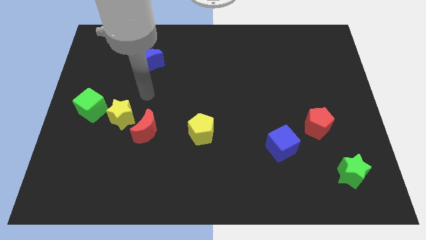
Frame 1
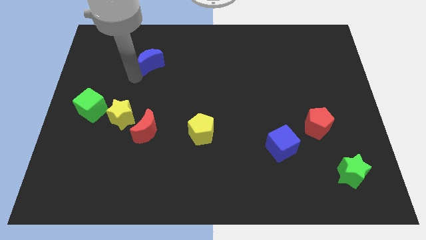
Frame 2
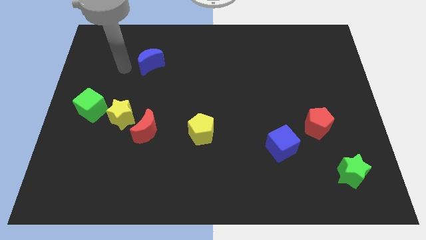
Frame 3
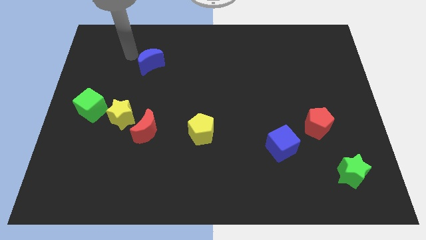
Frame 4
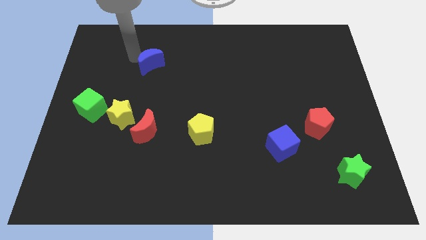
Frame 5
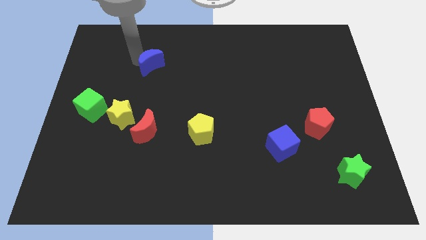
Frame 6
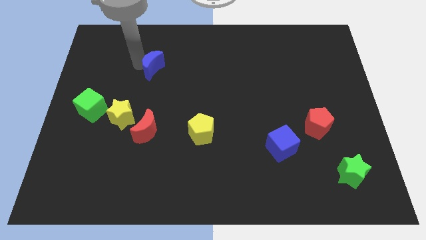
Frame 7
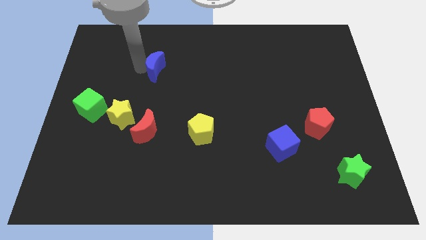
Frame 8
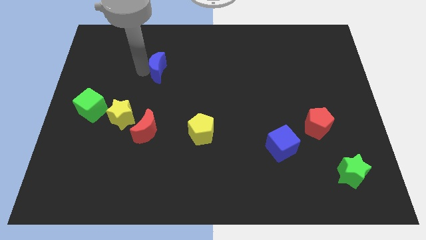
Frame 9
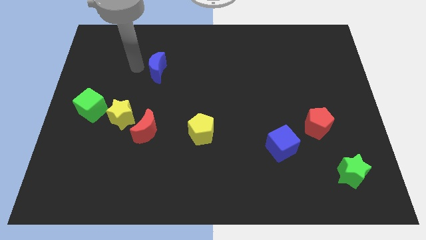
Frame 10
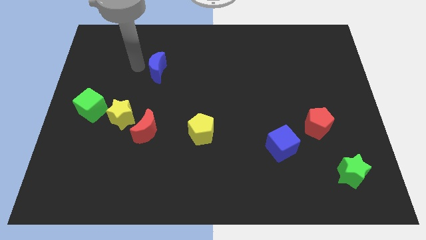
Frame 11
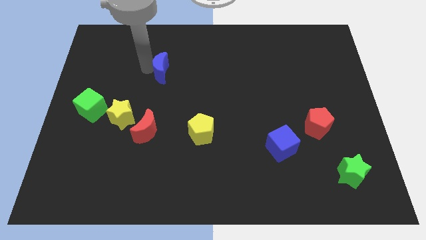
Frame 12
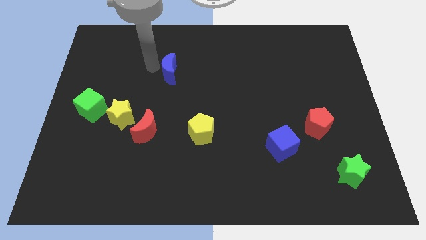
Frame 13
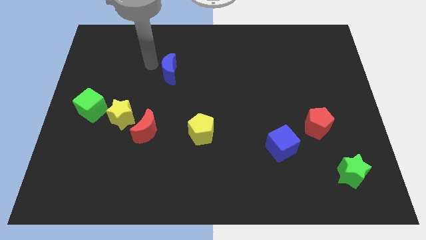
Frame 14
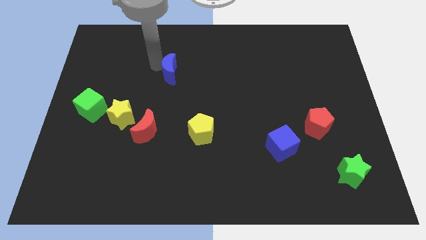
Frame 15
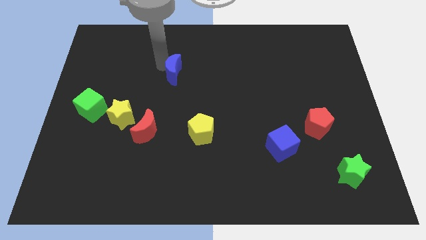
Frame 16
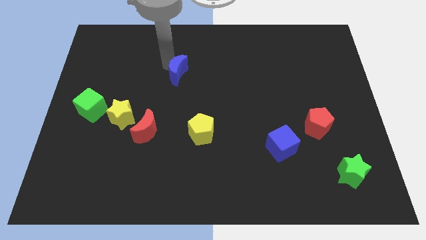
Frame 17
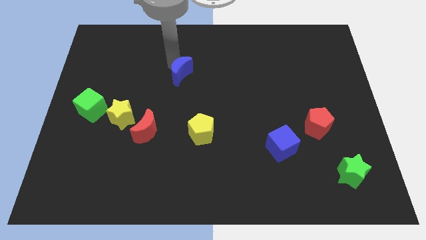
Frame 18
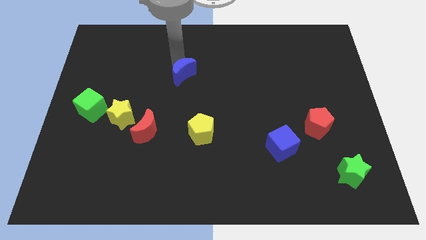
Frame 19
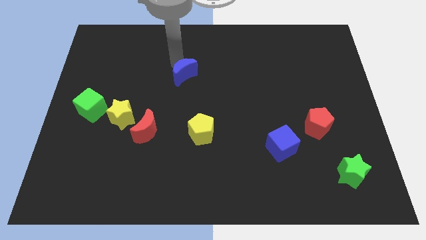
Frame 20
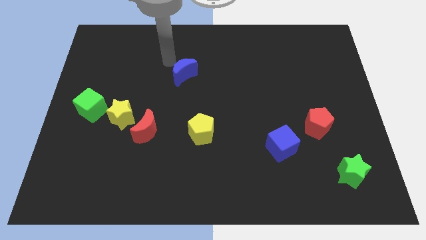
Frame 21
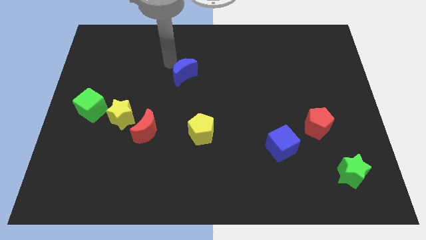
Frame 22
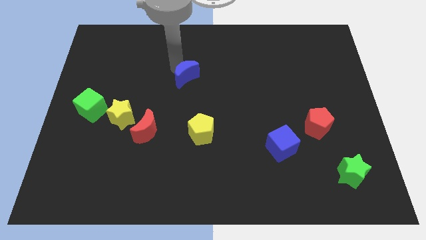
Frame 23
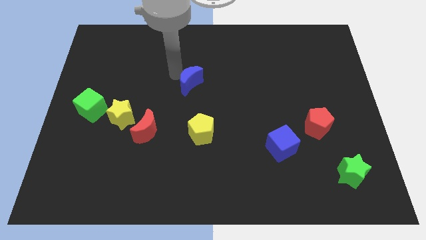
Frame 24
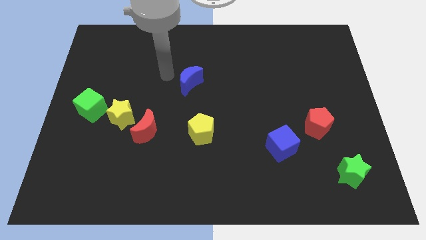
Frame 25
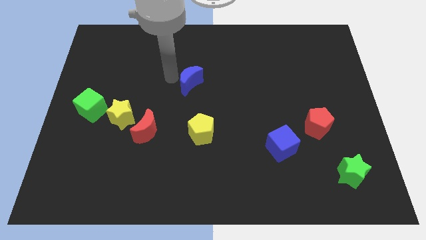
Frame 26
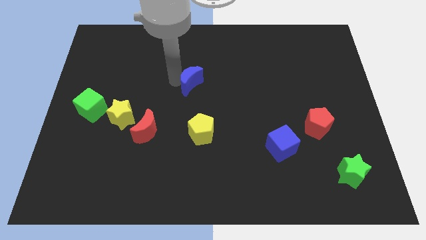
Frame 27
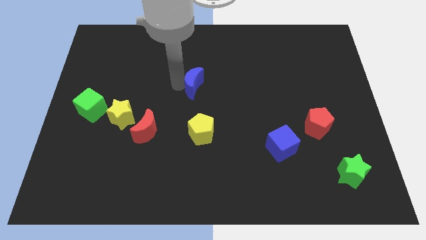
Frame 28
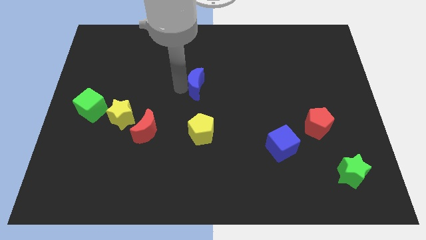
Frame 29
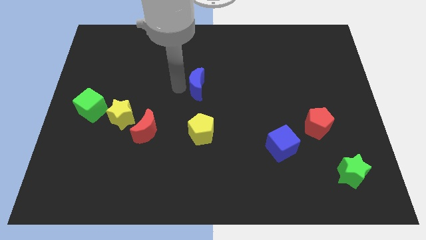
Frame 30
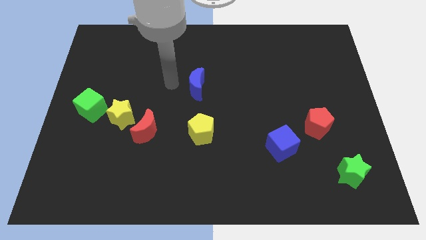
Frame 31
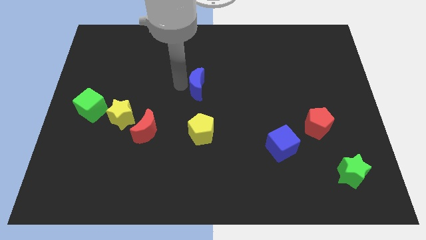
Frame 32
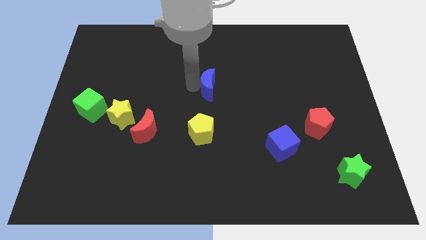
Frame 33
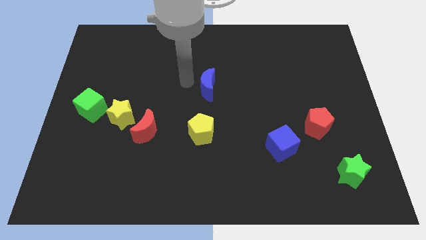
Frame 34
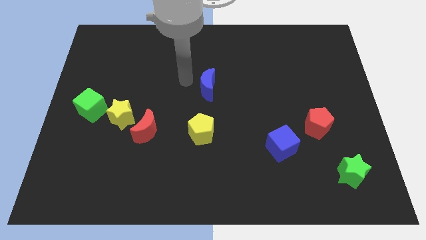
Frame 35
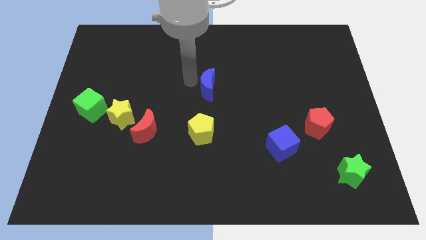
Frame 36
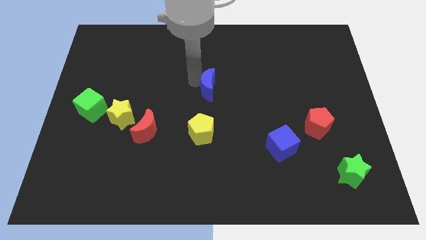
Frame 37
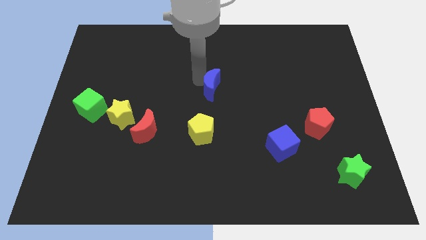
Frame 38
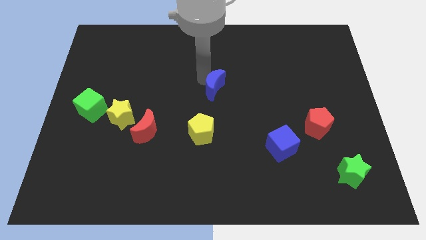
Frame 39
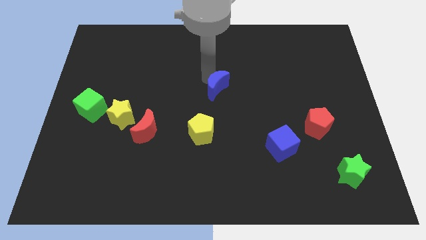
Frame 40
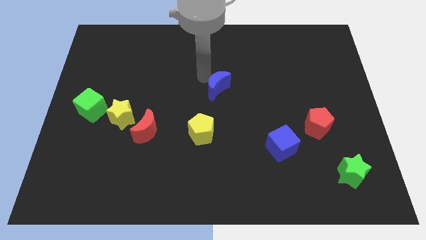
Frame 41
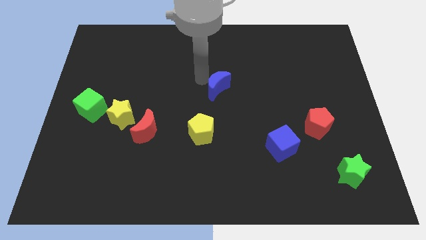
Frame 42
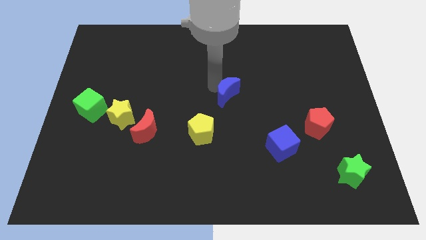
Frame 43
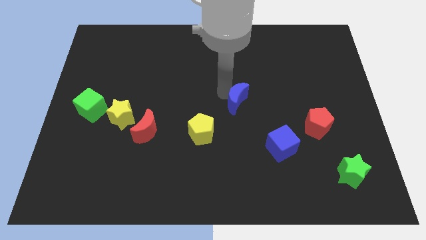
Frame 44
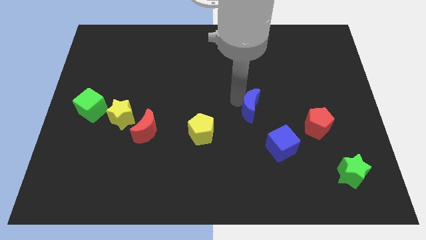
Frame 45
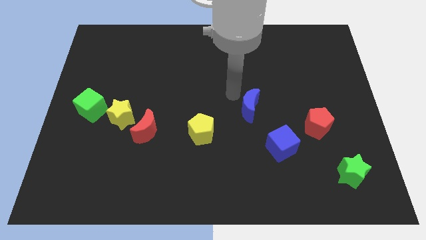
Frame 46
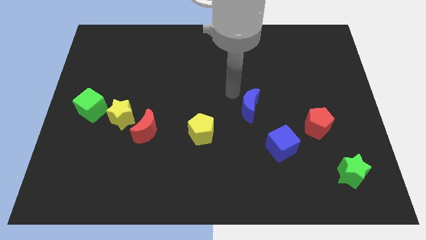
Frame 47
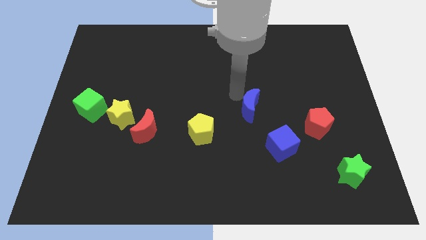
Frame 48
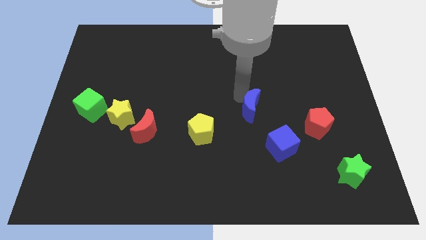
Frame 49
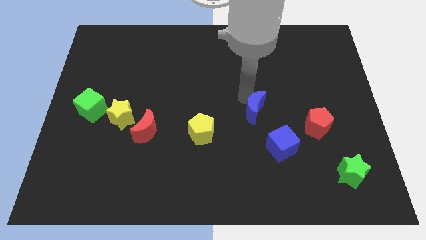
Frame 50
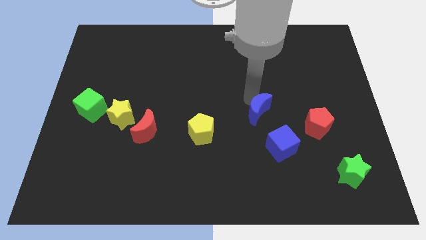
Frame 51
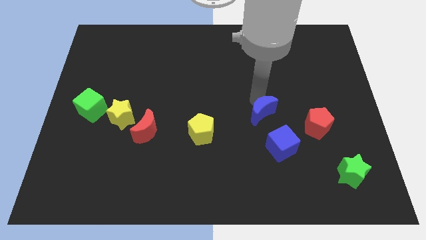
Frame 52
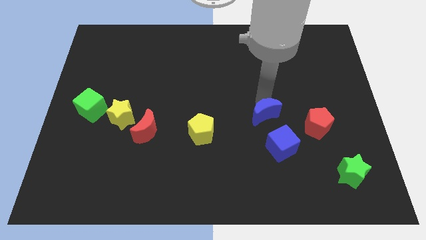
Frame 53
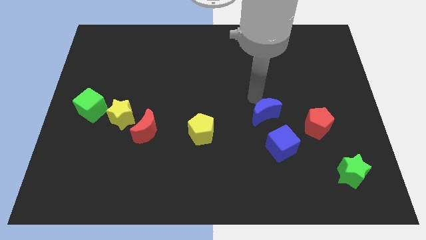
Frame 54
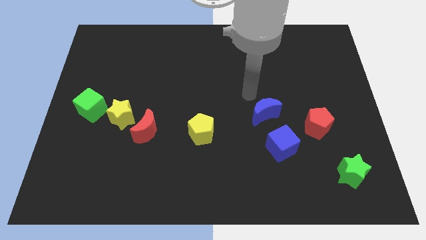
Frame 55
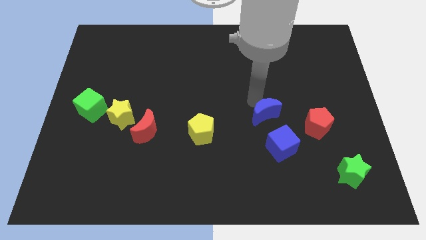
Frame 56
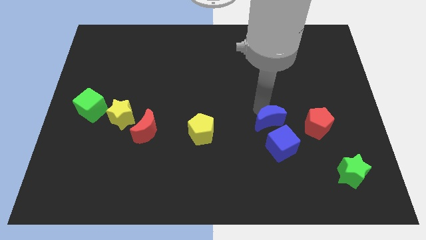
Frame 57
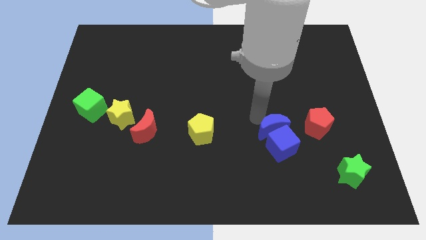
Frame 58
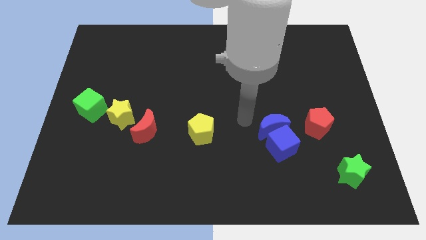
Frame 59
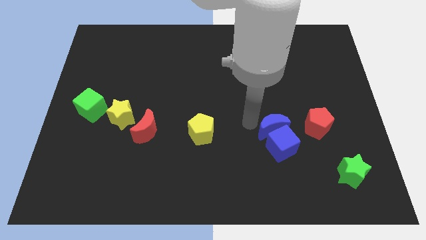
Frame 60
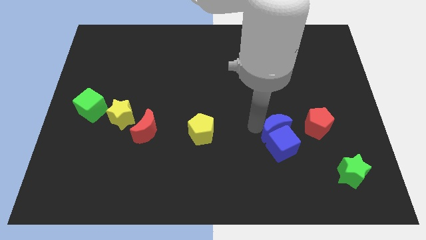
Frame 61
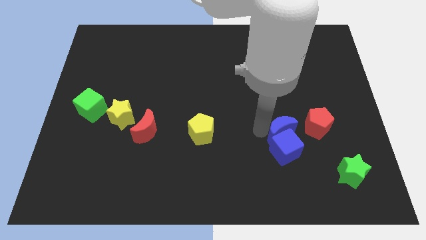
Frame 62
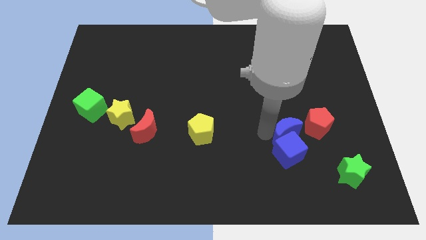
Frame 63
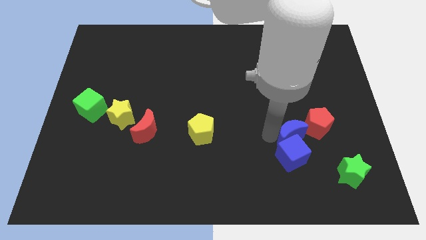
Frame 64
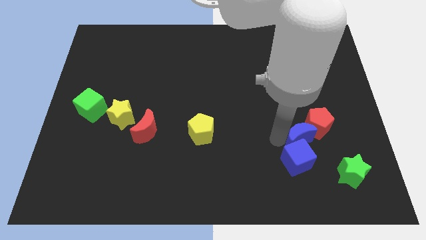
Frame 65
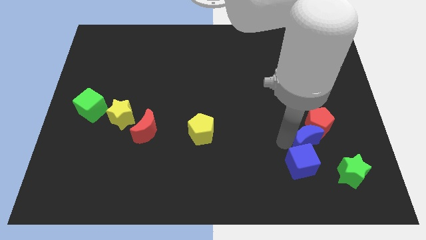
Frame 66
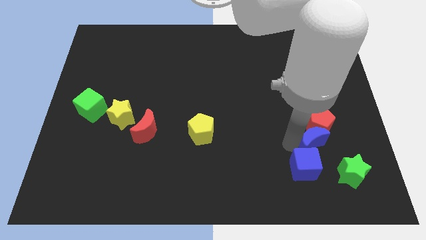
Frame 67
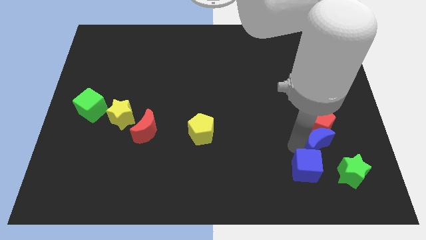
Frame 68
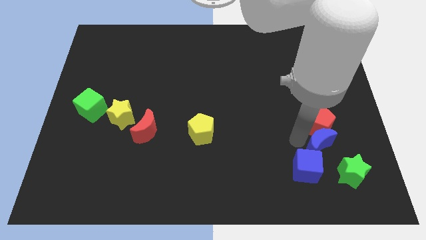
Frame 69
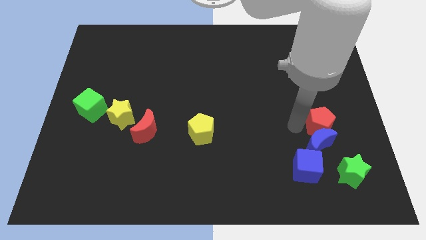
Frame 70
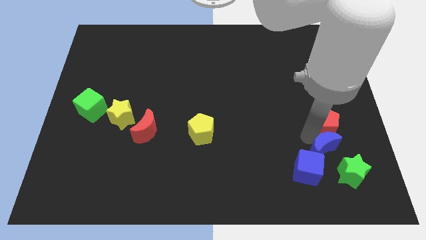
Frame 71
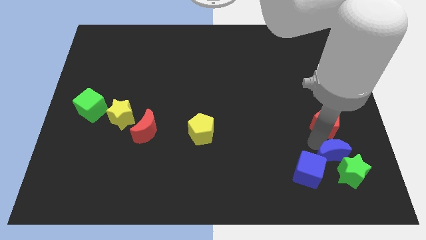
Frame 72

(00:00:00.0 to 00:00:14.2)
move the blue moon to the green star
